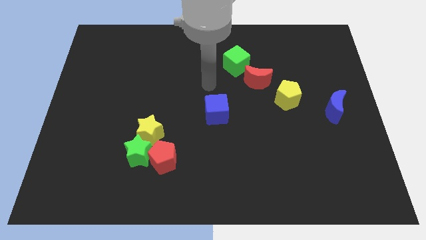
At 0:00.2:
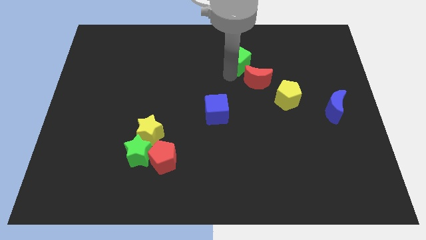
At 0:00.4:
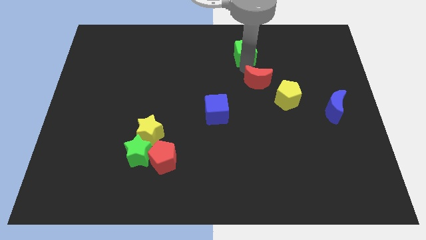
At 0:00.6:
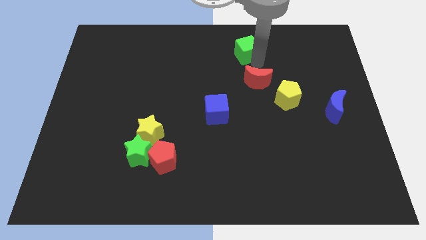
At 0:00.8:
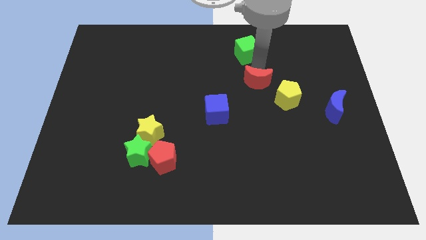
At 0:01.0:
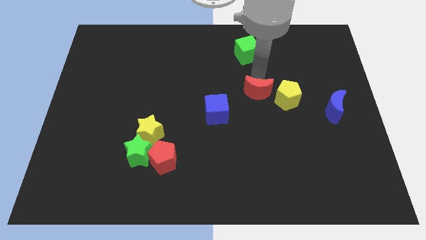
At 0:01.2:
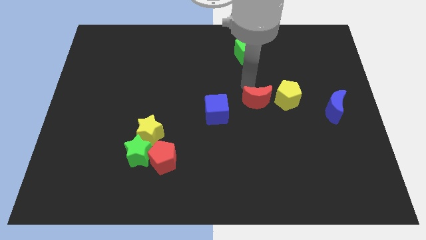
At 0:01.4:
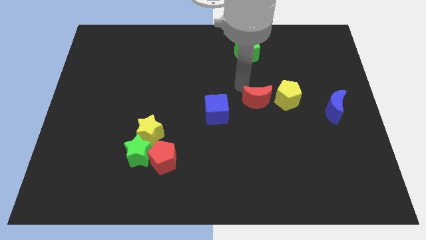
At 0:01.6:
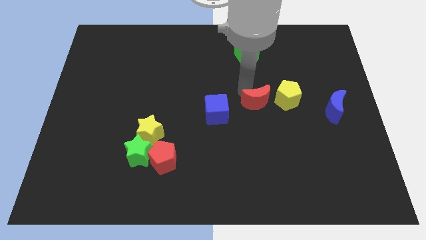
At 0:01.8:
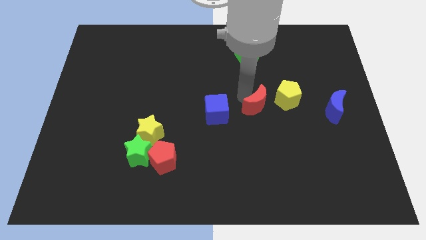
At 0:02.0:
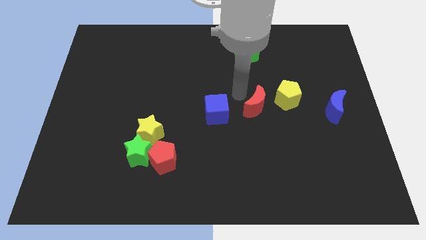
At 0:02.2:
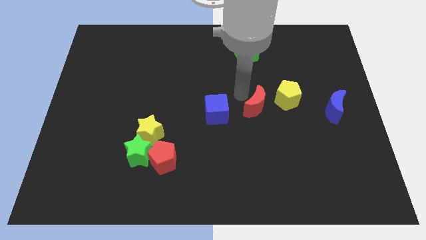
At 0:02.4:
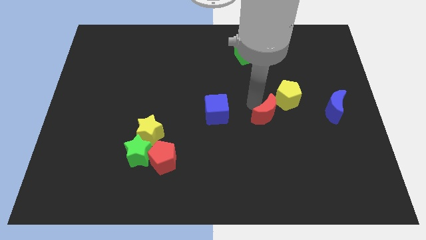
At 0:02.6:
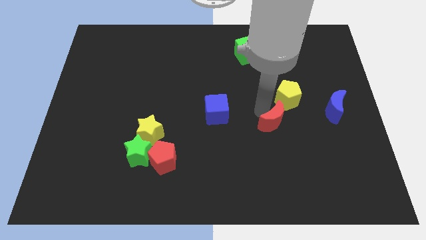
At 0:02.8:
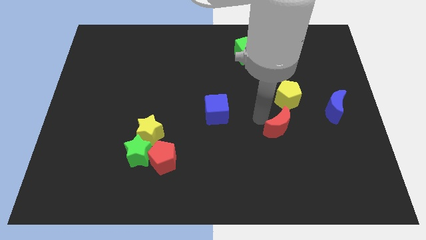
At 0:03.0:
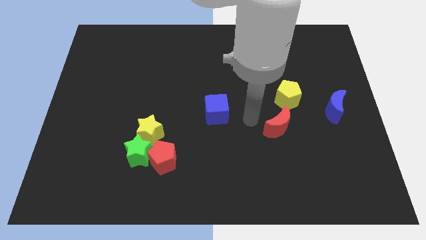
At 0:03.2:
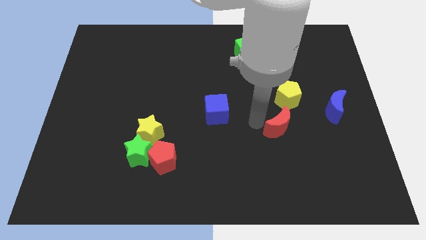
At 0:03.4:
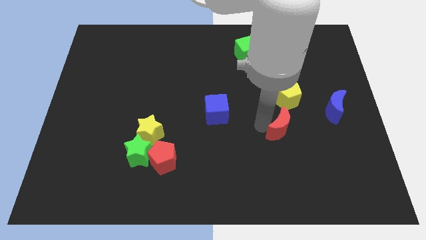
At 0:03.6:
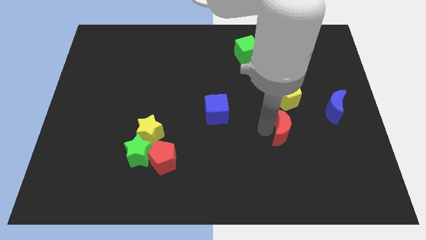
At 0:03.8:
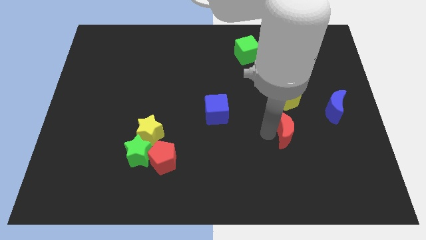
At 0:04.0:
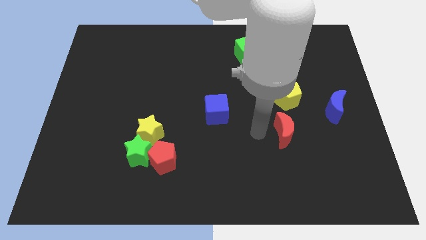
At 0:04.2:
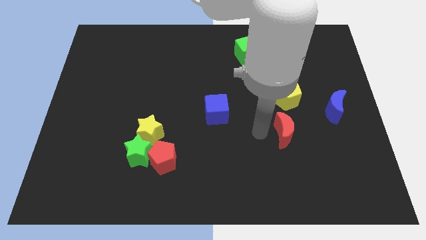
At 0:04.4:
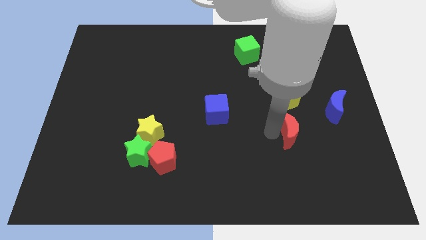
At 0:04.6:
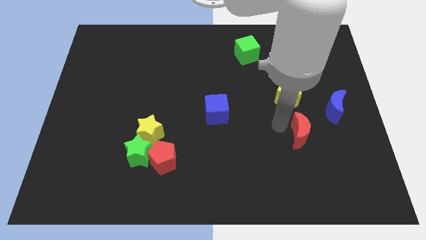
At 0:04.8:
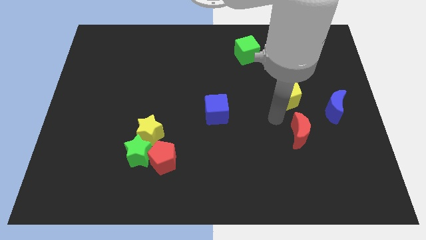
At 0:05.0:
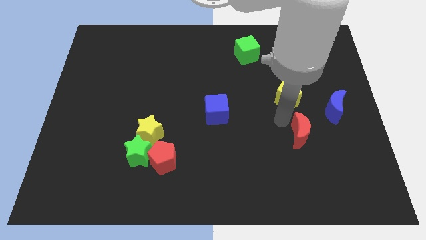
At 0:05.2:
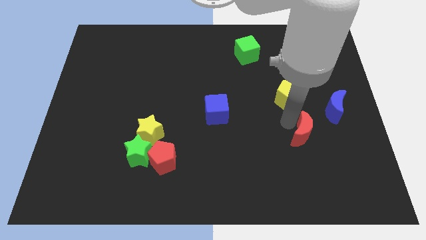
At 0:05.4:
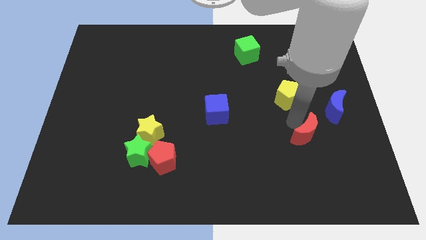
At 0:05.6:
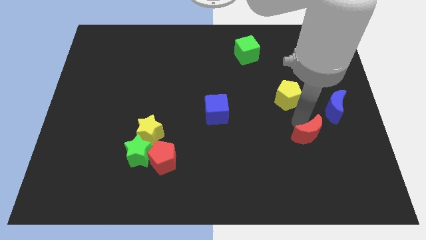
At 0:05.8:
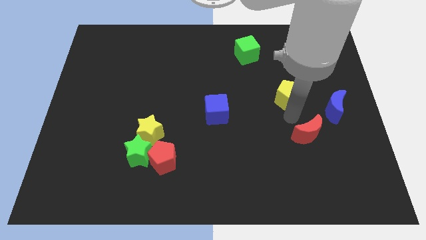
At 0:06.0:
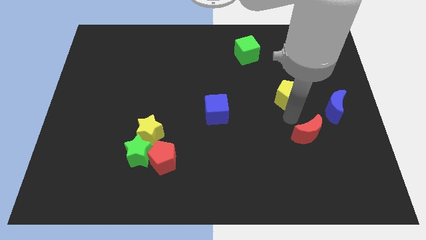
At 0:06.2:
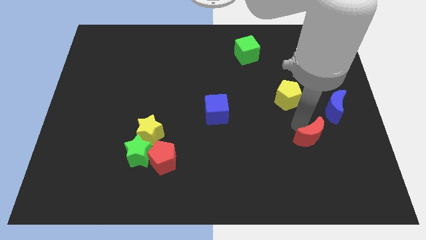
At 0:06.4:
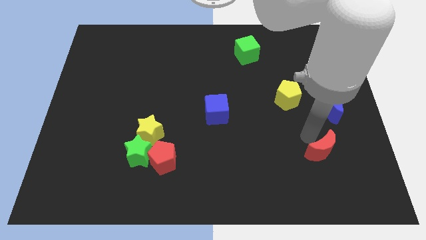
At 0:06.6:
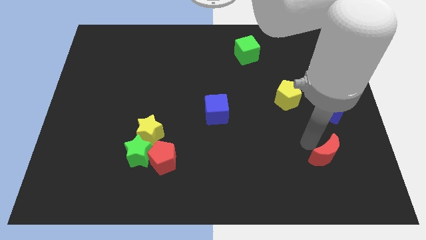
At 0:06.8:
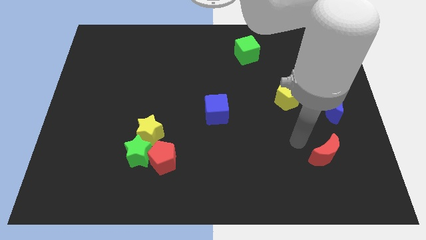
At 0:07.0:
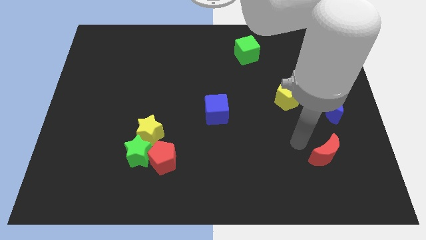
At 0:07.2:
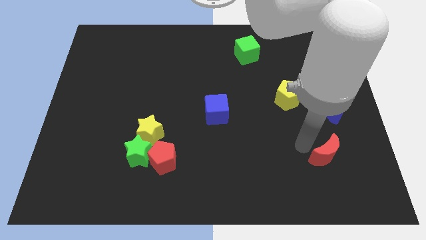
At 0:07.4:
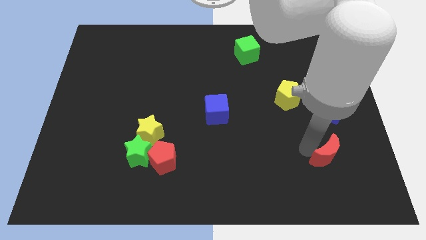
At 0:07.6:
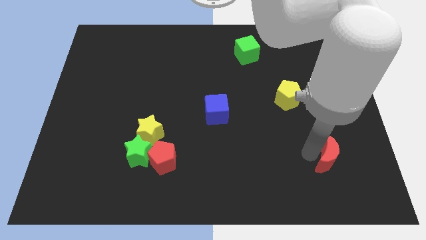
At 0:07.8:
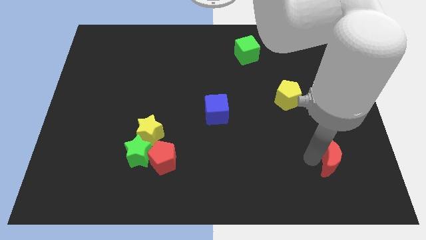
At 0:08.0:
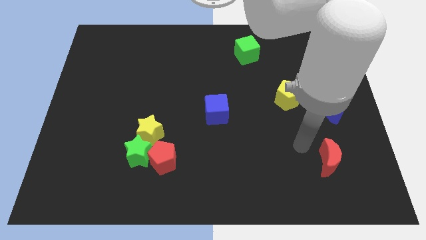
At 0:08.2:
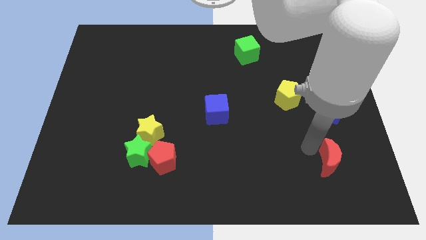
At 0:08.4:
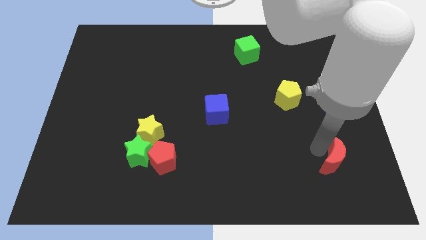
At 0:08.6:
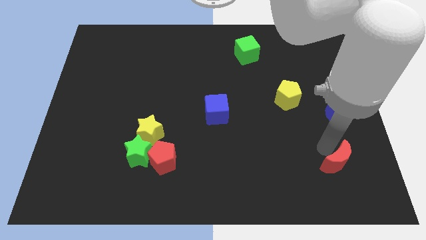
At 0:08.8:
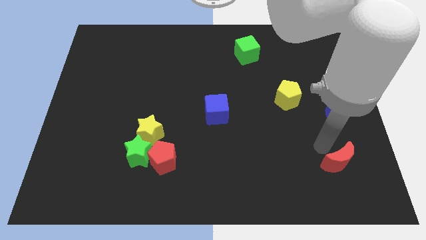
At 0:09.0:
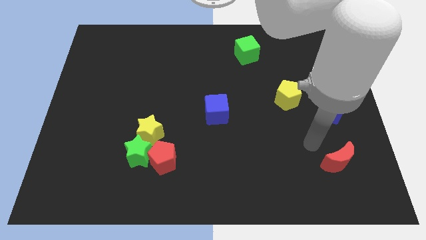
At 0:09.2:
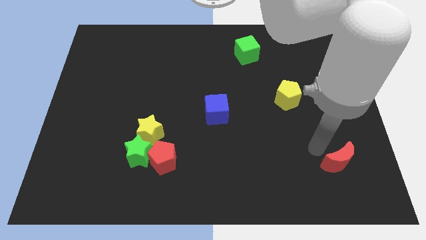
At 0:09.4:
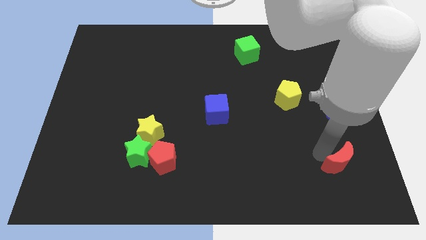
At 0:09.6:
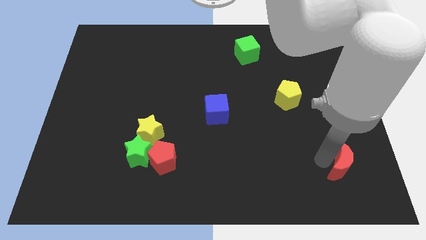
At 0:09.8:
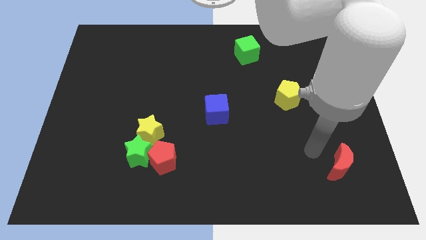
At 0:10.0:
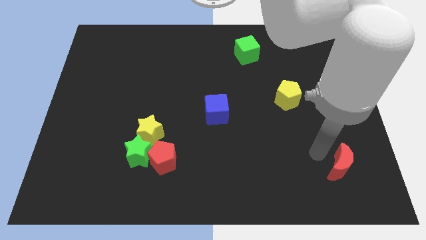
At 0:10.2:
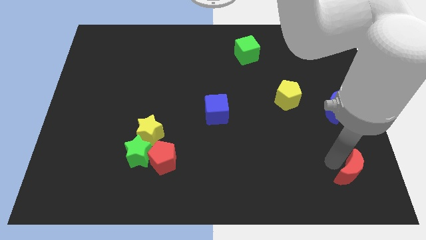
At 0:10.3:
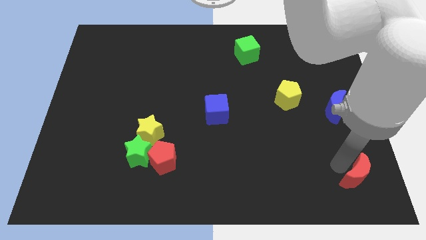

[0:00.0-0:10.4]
move the red moon to the bottom right

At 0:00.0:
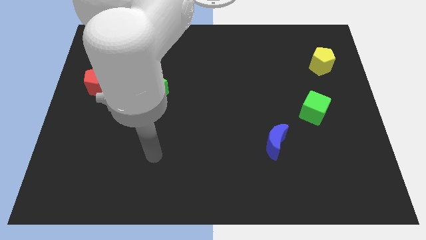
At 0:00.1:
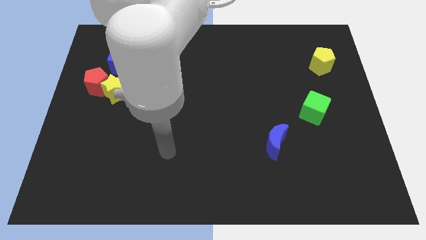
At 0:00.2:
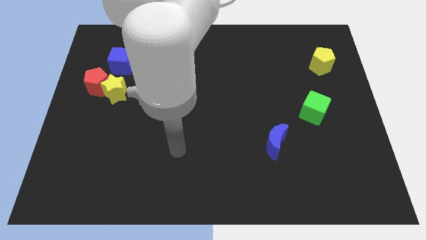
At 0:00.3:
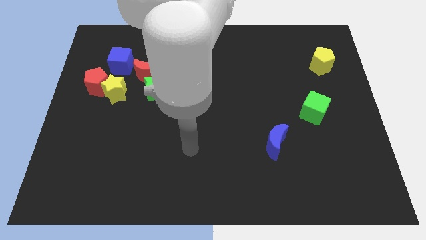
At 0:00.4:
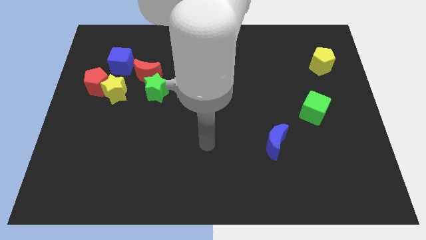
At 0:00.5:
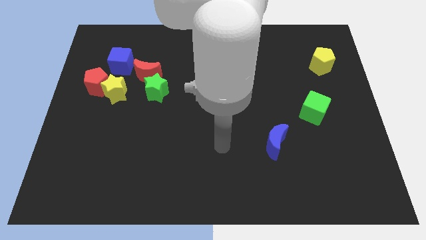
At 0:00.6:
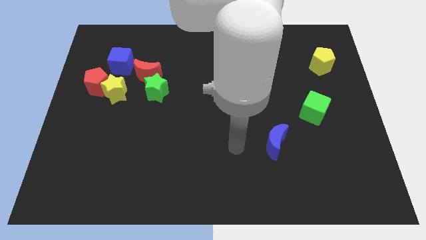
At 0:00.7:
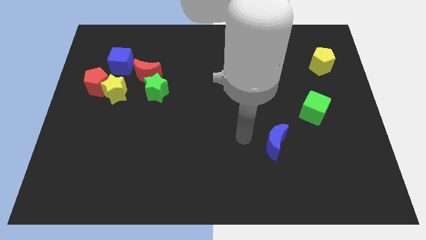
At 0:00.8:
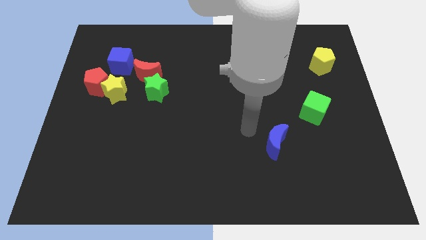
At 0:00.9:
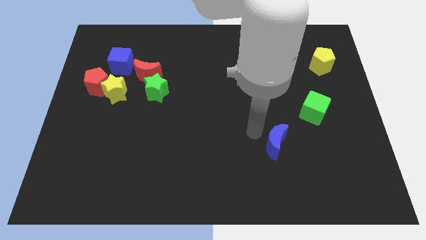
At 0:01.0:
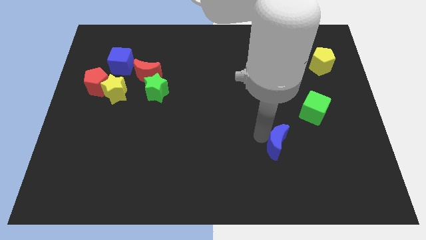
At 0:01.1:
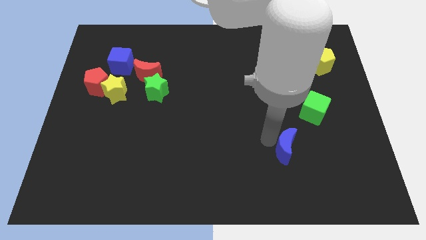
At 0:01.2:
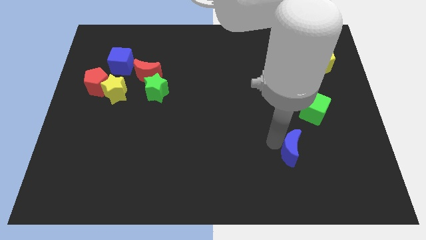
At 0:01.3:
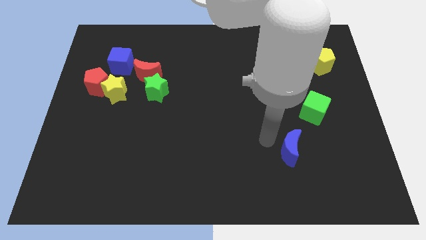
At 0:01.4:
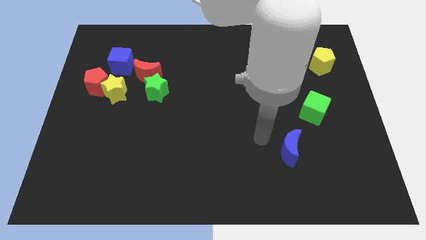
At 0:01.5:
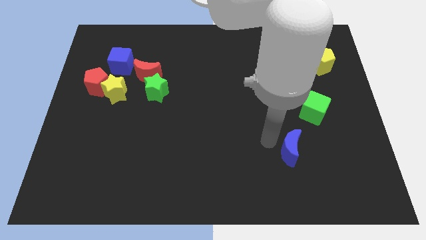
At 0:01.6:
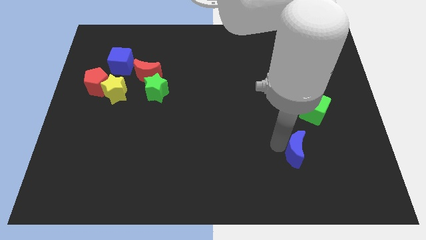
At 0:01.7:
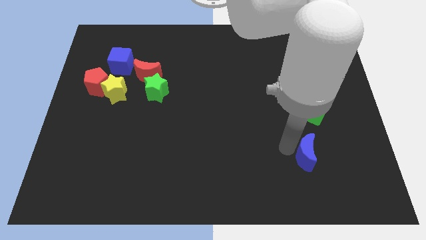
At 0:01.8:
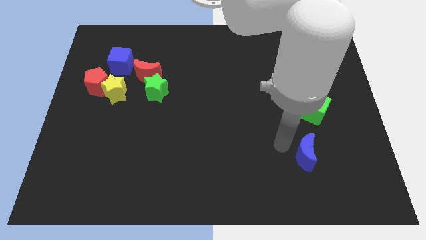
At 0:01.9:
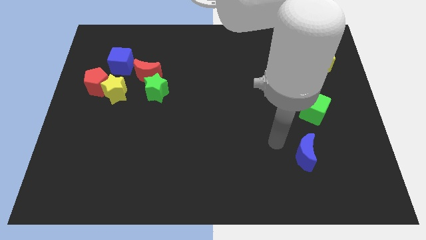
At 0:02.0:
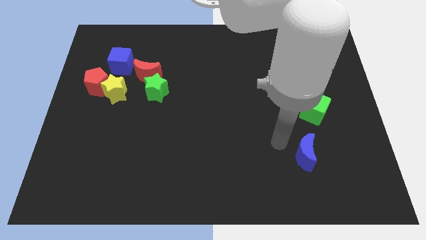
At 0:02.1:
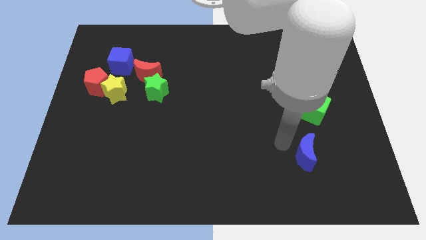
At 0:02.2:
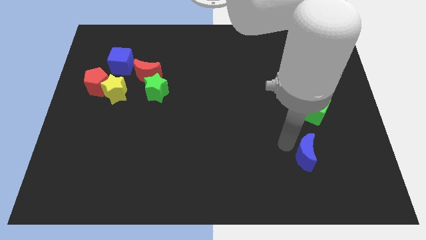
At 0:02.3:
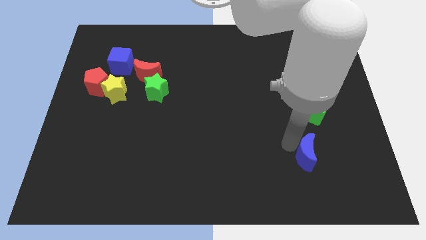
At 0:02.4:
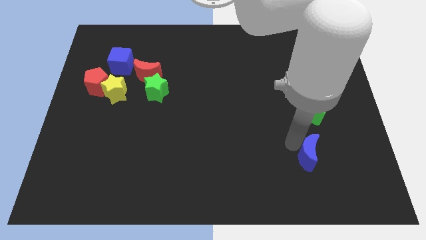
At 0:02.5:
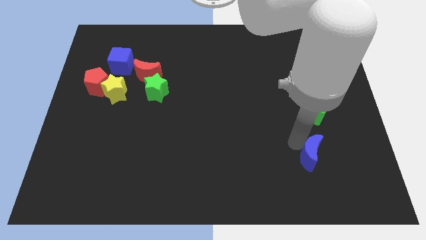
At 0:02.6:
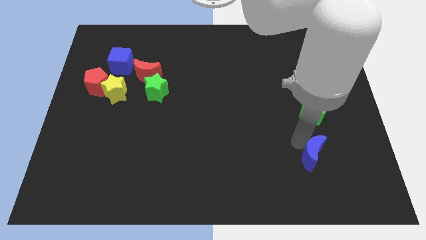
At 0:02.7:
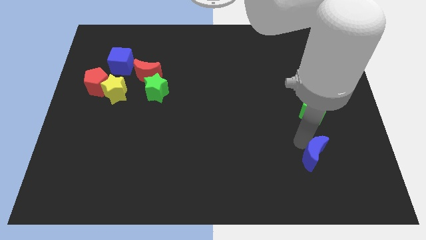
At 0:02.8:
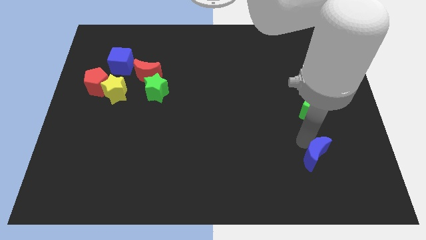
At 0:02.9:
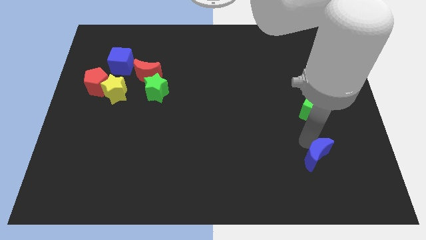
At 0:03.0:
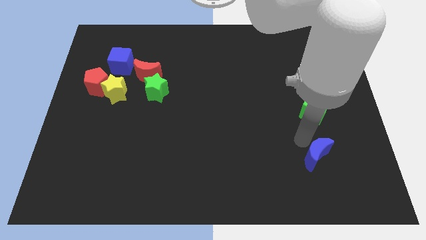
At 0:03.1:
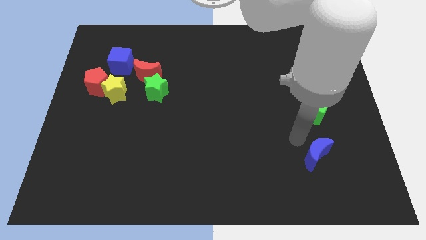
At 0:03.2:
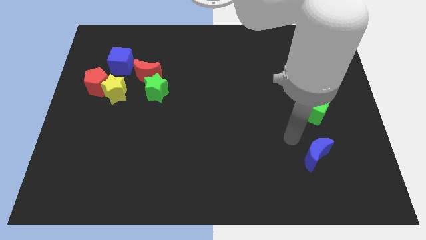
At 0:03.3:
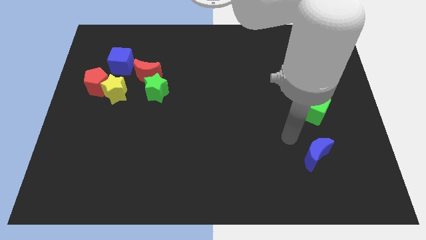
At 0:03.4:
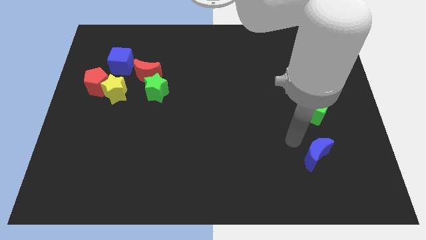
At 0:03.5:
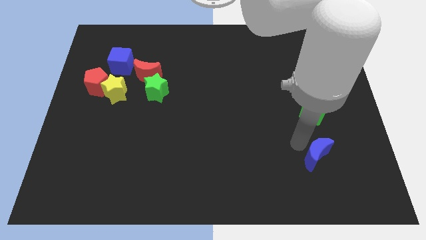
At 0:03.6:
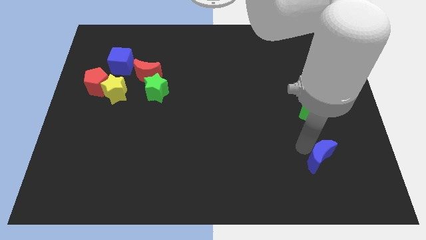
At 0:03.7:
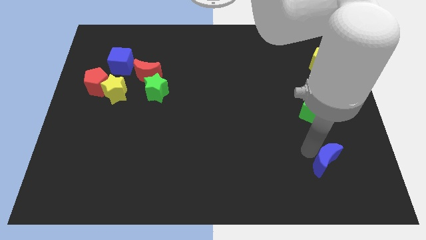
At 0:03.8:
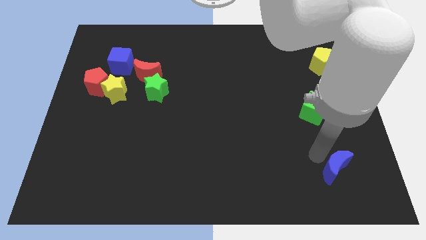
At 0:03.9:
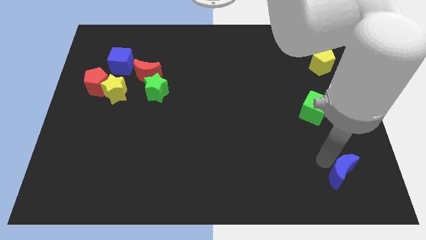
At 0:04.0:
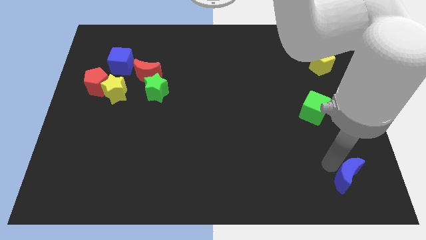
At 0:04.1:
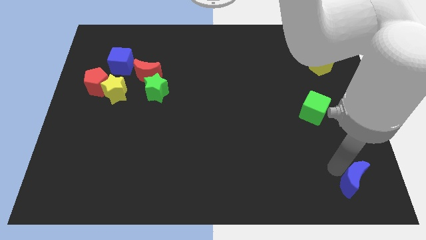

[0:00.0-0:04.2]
put the blue moon to the bottom right
